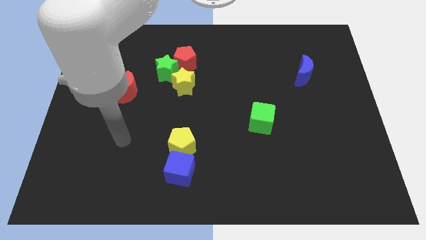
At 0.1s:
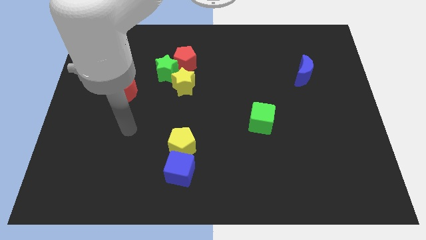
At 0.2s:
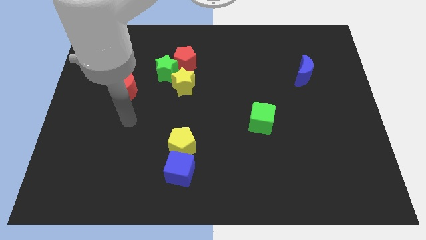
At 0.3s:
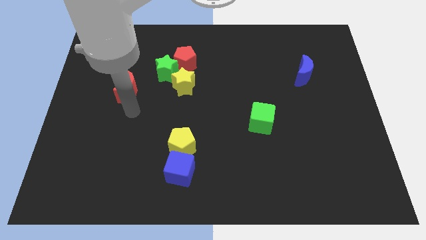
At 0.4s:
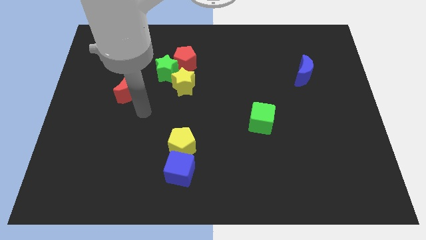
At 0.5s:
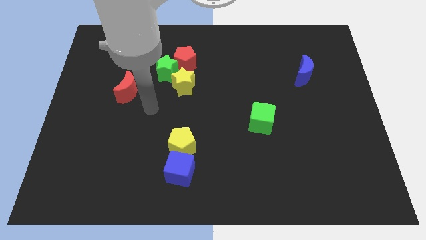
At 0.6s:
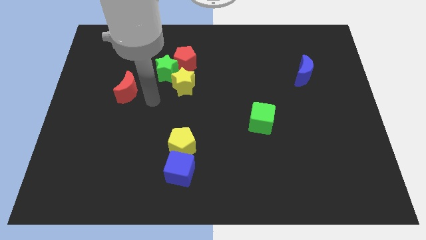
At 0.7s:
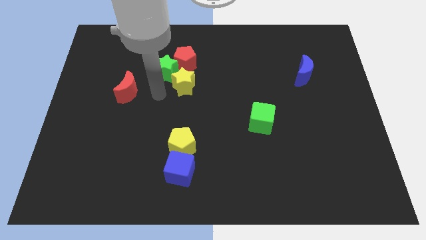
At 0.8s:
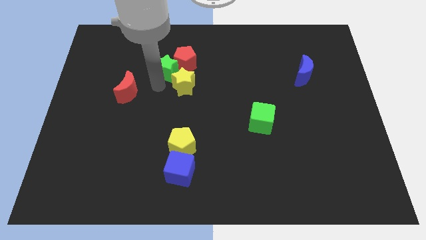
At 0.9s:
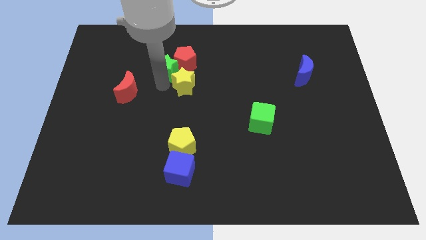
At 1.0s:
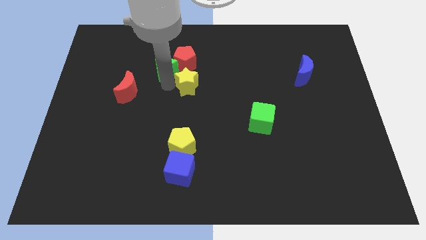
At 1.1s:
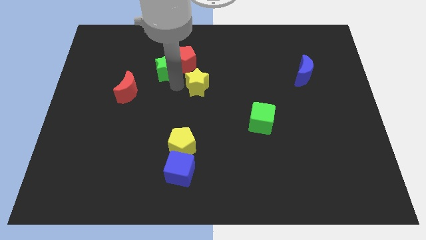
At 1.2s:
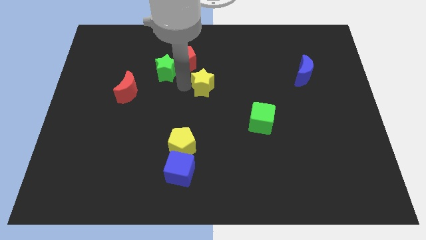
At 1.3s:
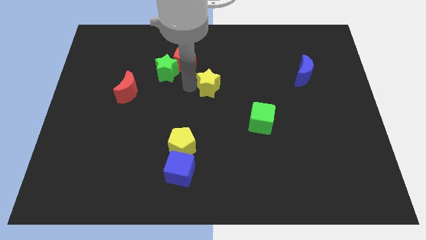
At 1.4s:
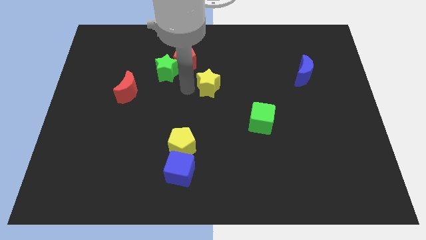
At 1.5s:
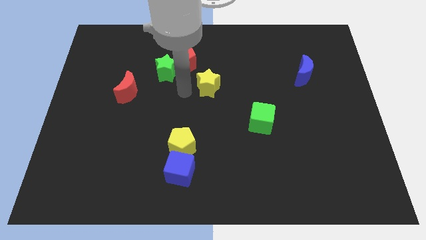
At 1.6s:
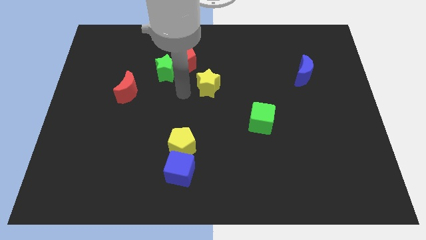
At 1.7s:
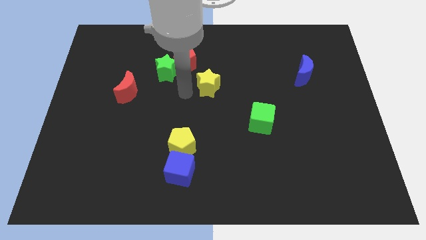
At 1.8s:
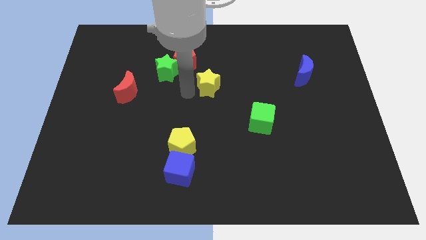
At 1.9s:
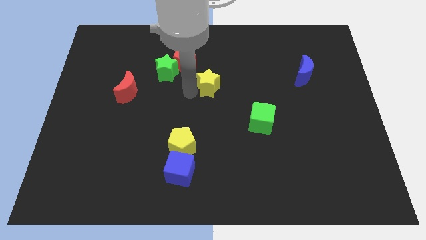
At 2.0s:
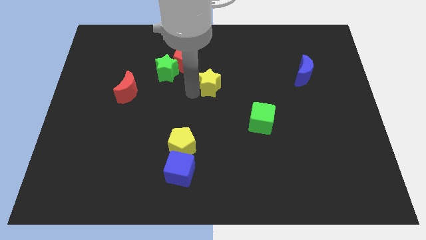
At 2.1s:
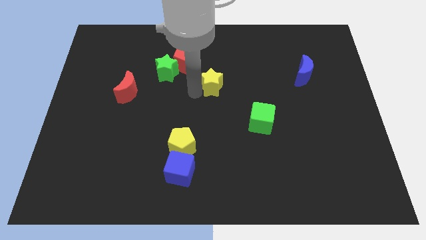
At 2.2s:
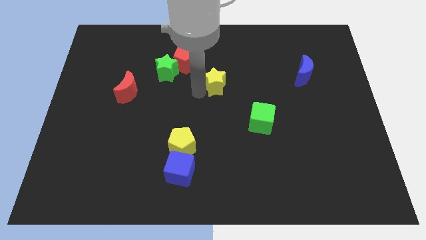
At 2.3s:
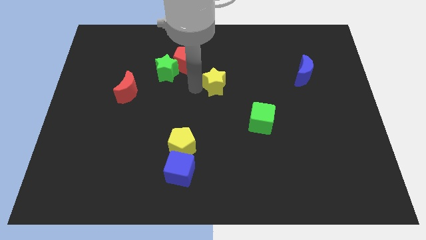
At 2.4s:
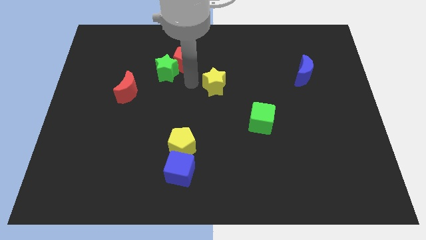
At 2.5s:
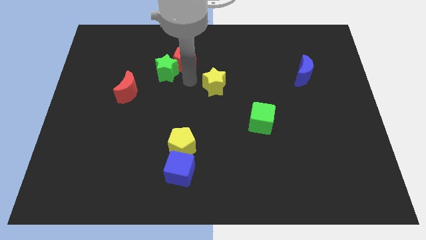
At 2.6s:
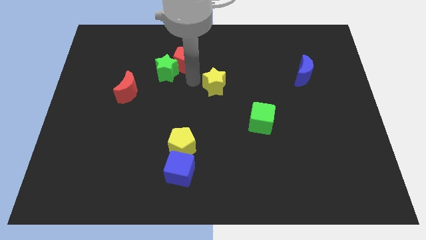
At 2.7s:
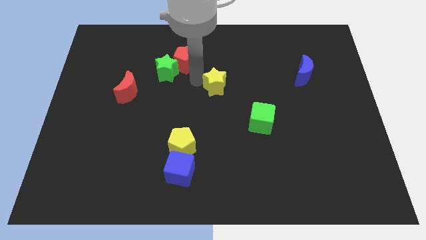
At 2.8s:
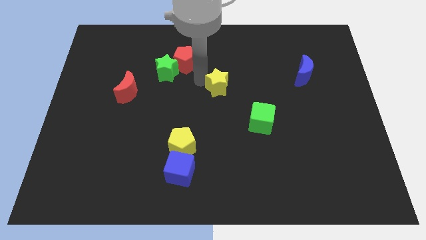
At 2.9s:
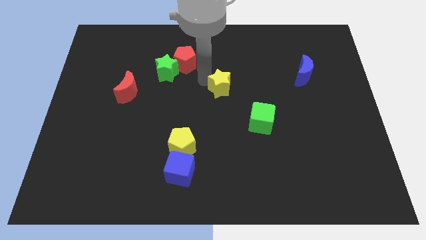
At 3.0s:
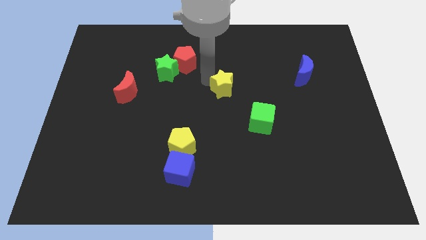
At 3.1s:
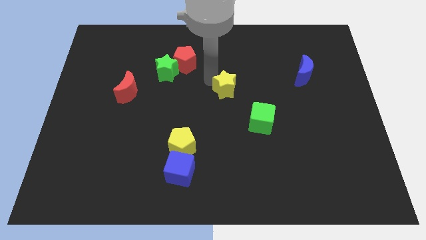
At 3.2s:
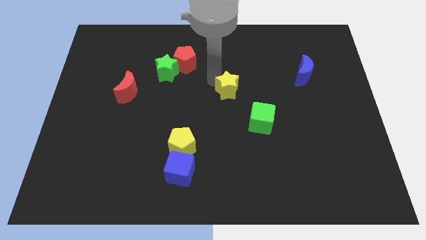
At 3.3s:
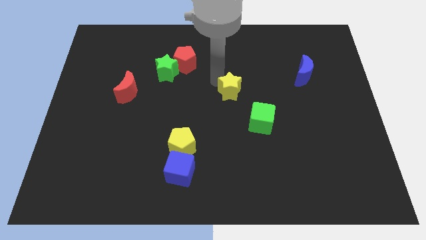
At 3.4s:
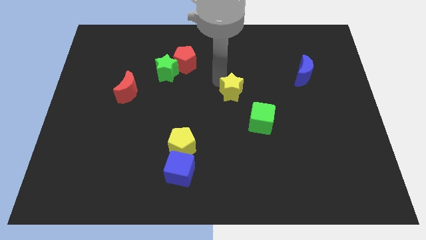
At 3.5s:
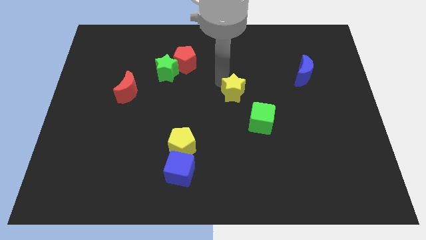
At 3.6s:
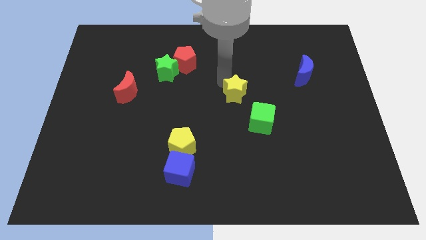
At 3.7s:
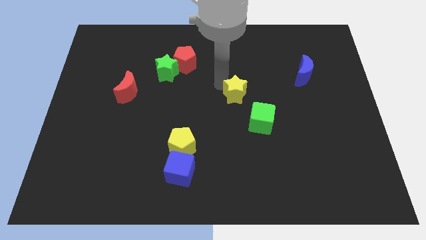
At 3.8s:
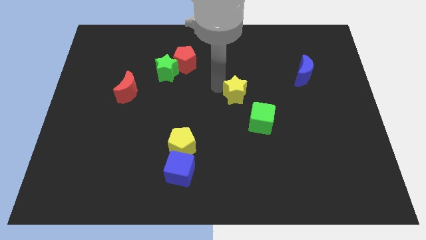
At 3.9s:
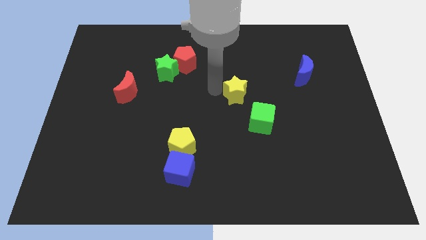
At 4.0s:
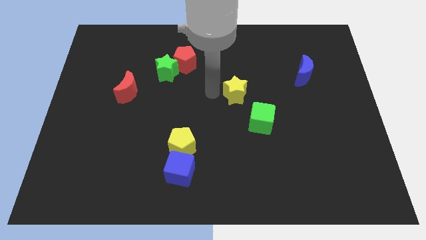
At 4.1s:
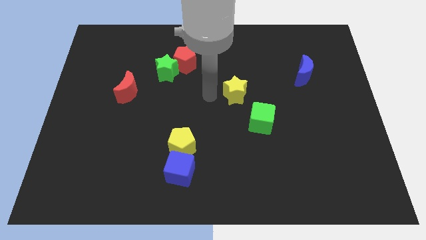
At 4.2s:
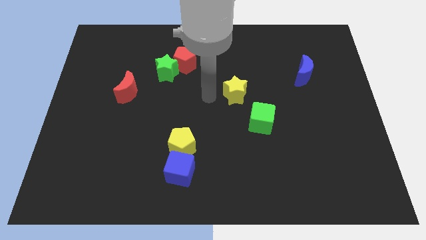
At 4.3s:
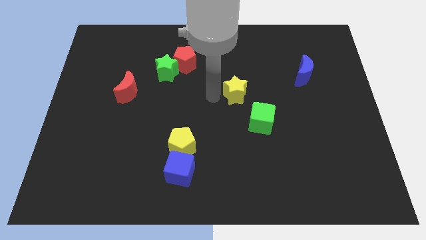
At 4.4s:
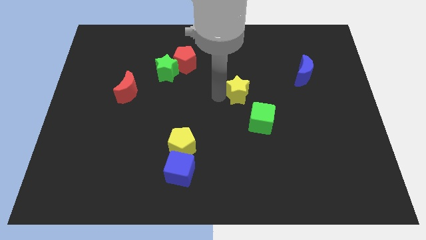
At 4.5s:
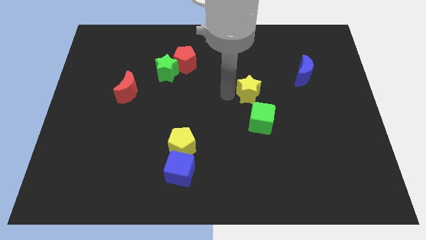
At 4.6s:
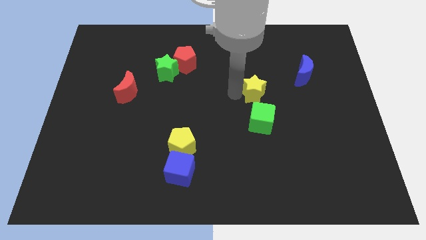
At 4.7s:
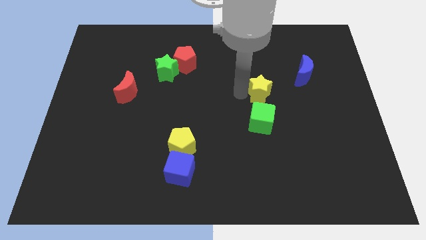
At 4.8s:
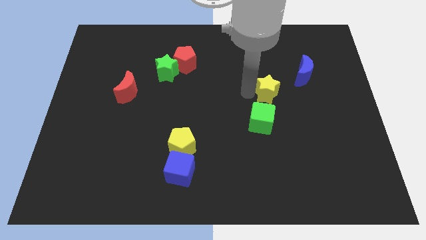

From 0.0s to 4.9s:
slide the yellow star to the right

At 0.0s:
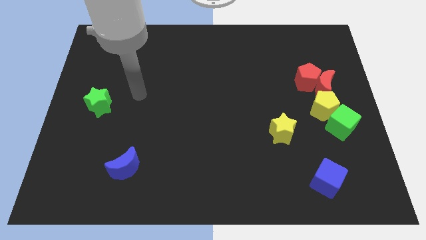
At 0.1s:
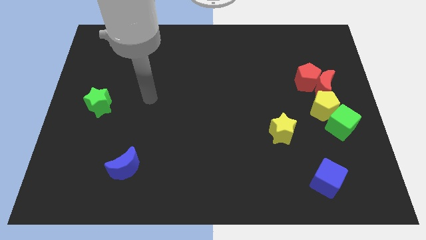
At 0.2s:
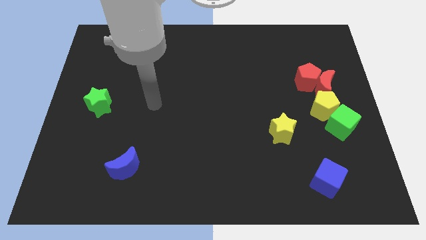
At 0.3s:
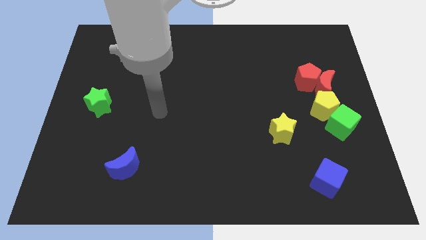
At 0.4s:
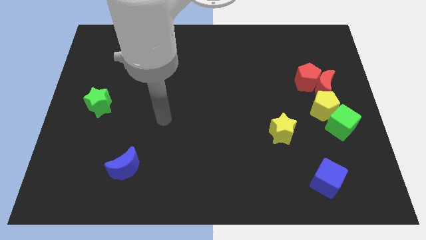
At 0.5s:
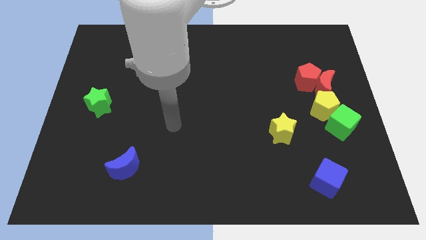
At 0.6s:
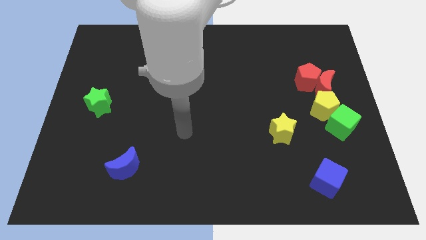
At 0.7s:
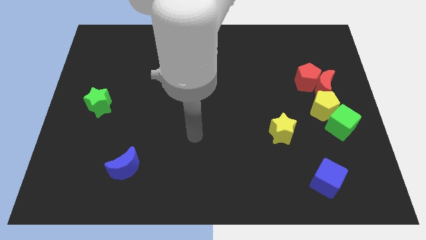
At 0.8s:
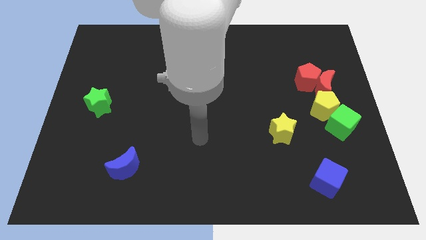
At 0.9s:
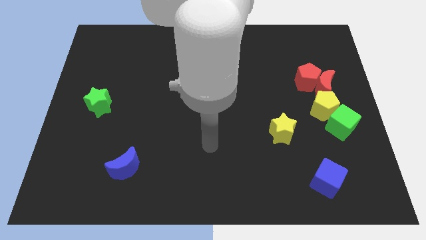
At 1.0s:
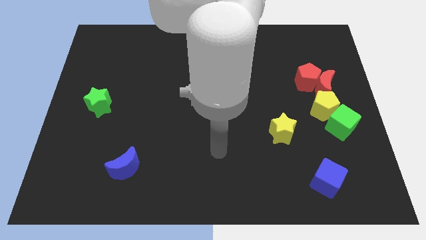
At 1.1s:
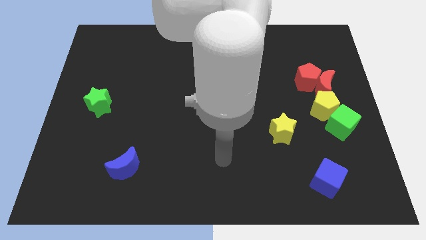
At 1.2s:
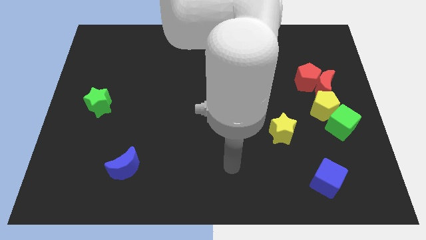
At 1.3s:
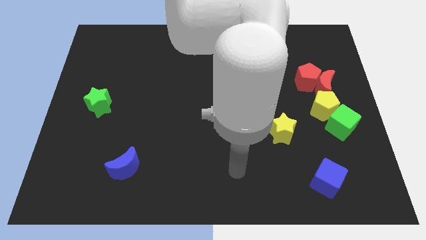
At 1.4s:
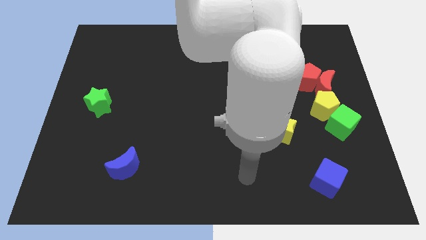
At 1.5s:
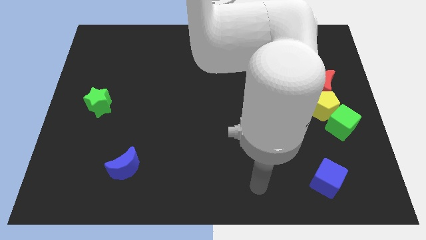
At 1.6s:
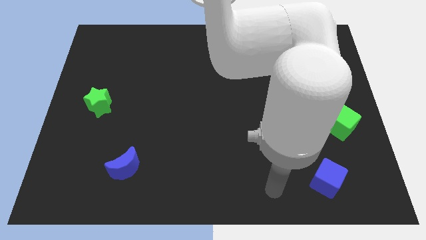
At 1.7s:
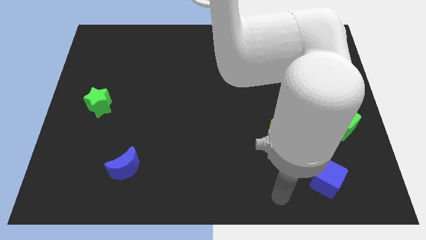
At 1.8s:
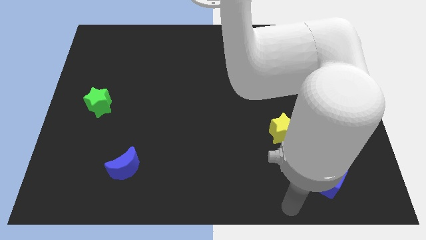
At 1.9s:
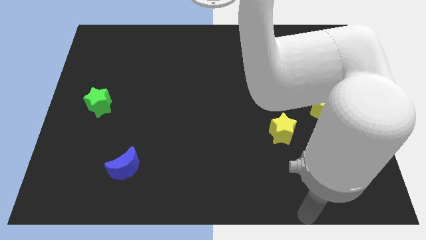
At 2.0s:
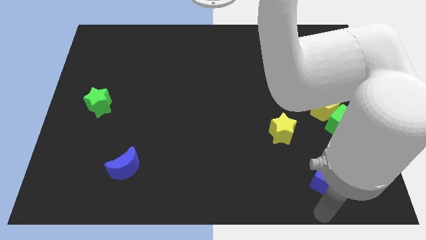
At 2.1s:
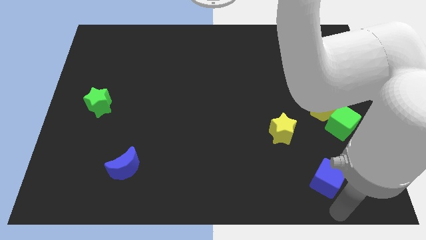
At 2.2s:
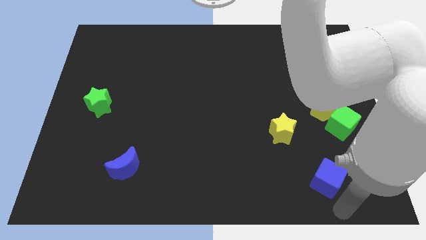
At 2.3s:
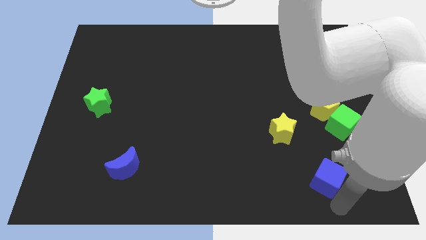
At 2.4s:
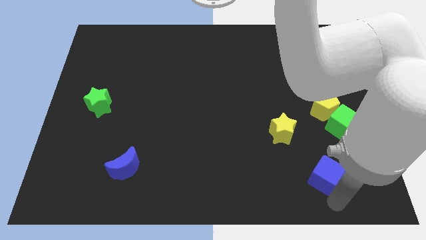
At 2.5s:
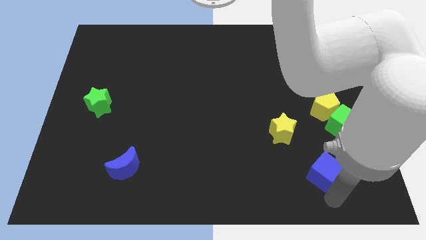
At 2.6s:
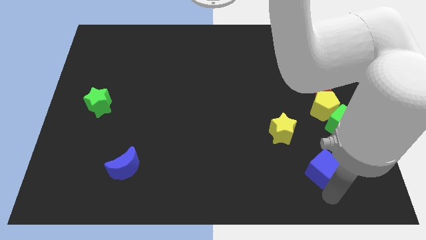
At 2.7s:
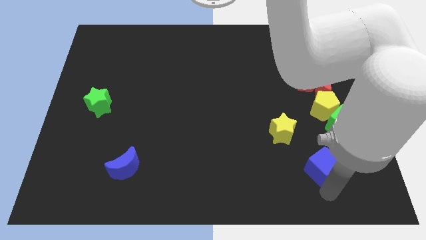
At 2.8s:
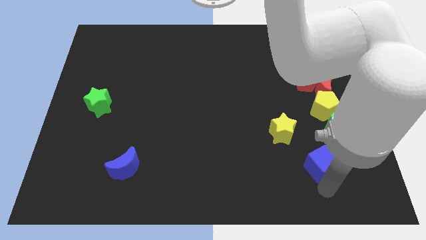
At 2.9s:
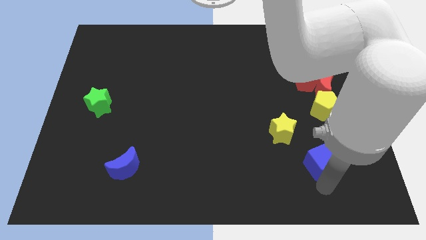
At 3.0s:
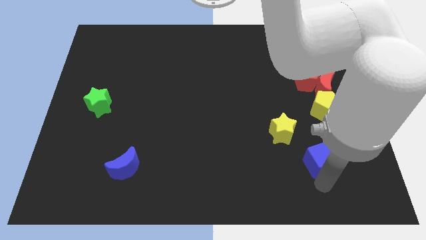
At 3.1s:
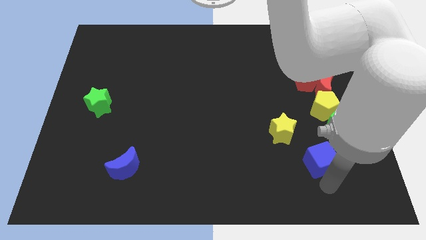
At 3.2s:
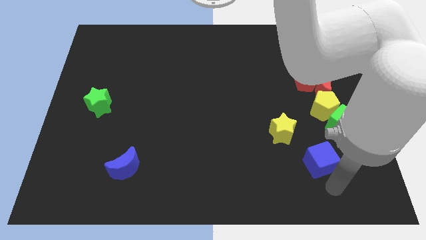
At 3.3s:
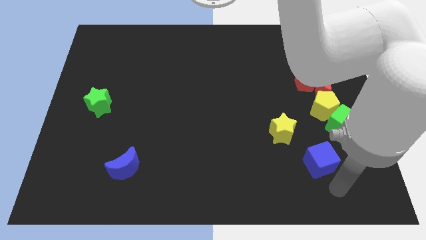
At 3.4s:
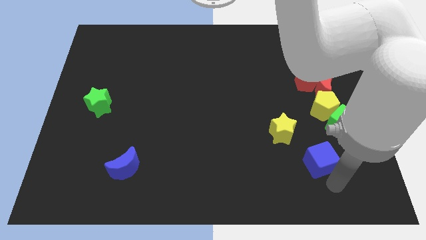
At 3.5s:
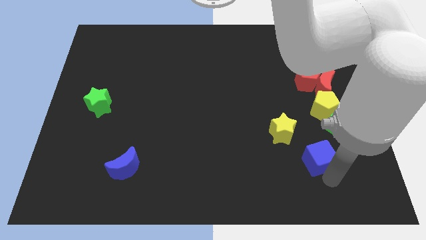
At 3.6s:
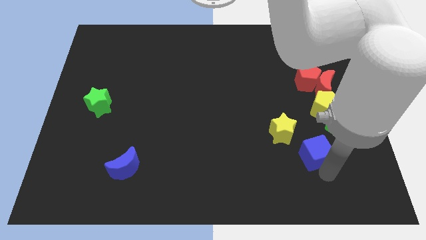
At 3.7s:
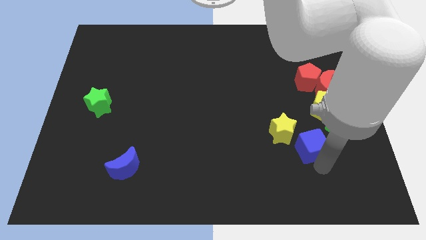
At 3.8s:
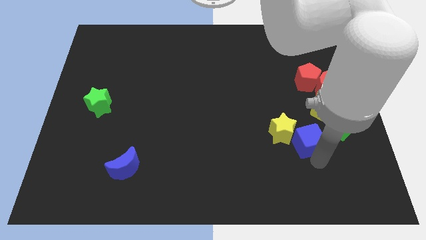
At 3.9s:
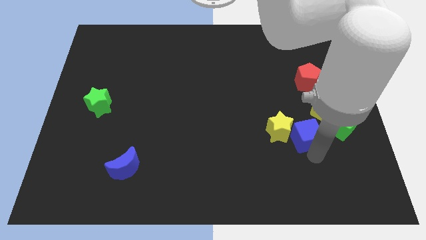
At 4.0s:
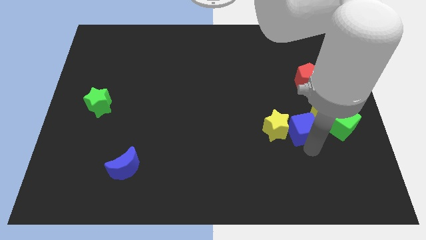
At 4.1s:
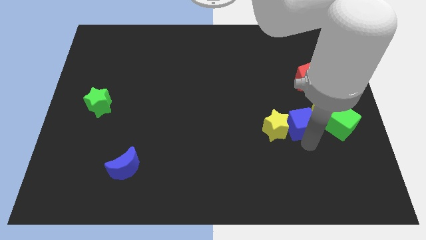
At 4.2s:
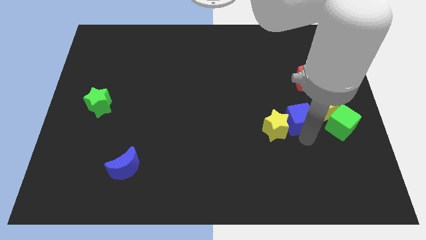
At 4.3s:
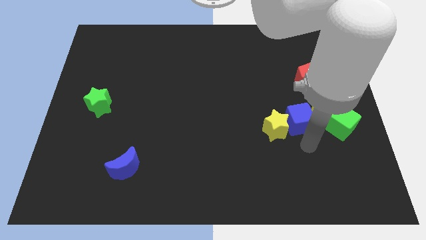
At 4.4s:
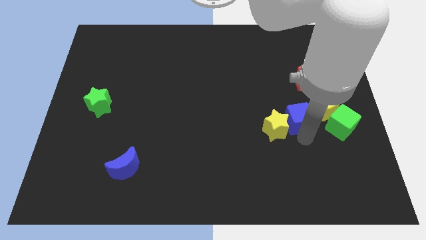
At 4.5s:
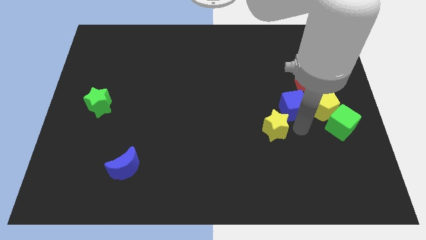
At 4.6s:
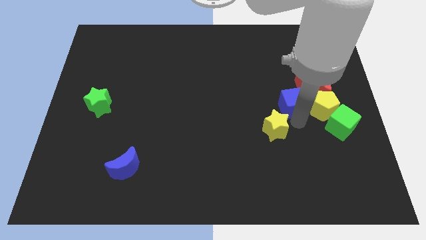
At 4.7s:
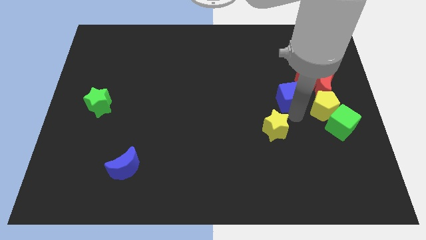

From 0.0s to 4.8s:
push the blue cube up
